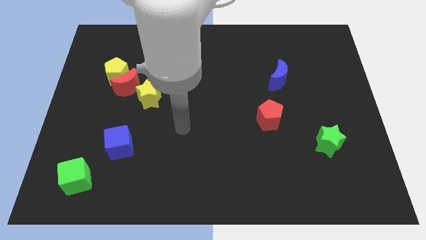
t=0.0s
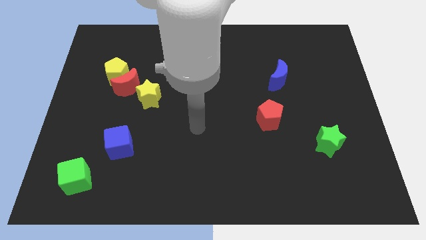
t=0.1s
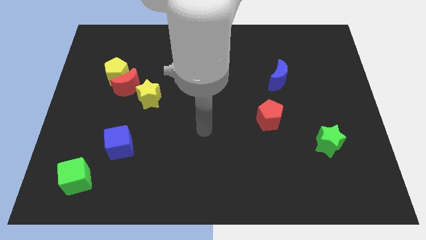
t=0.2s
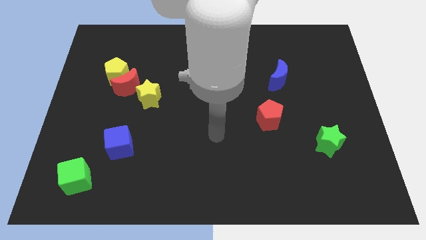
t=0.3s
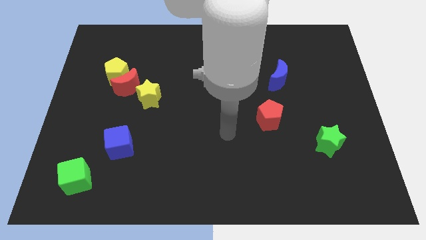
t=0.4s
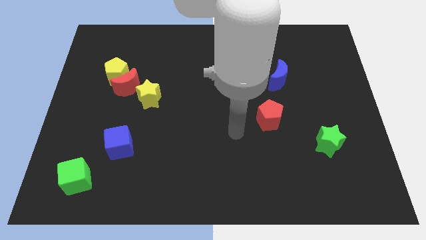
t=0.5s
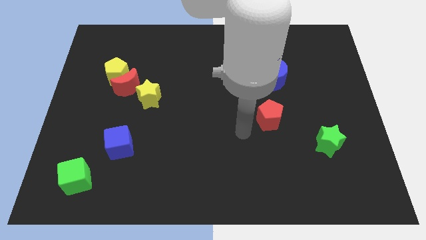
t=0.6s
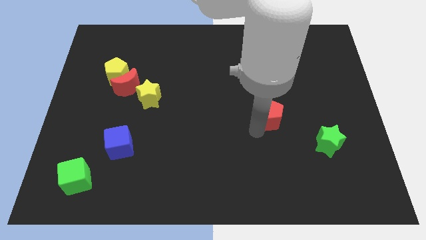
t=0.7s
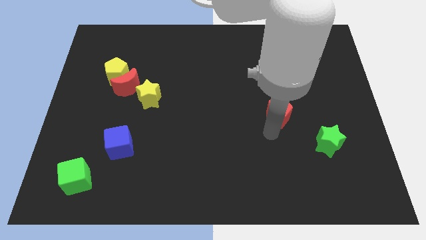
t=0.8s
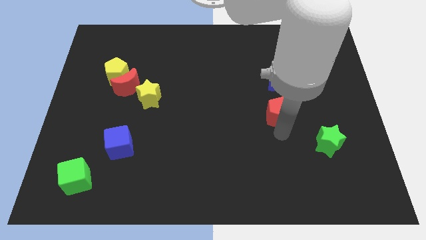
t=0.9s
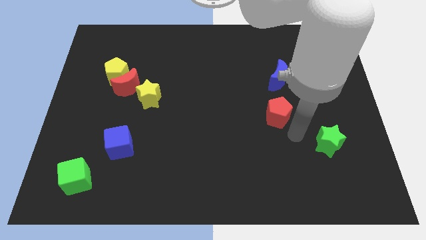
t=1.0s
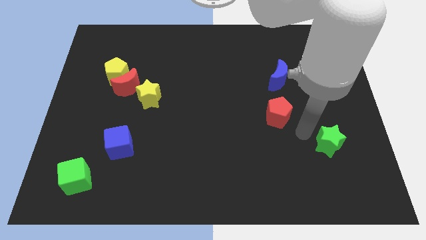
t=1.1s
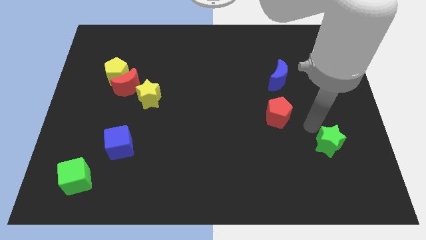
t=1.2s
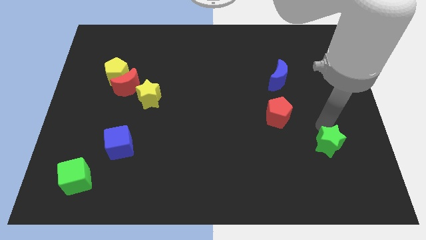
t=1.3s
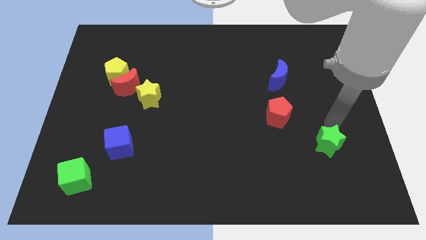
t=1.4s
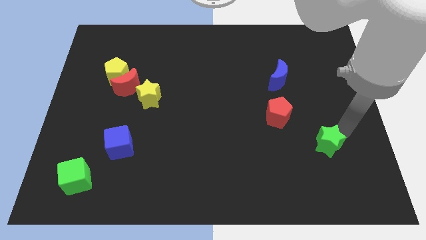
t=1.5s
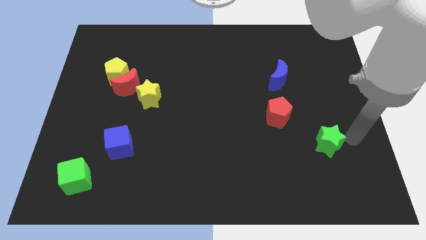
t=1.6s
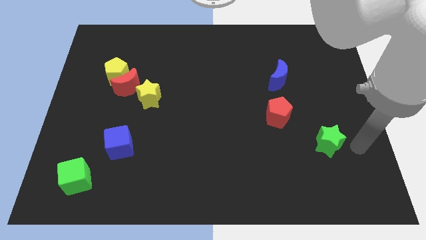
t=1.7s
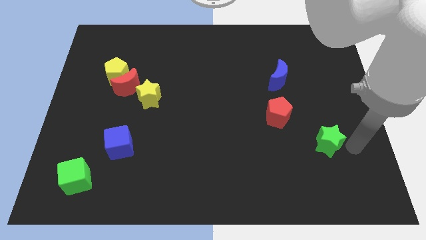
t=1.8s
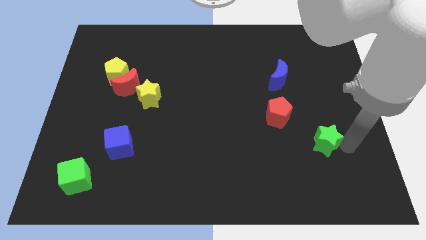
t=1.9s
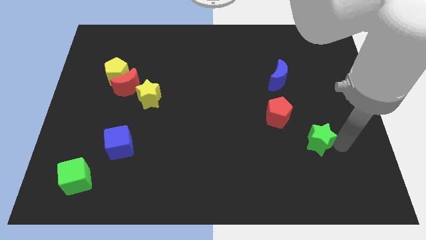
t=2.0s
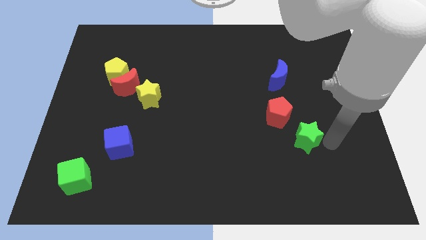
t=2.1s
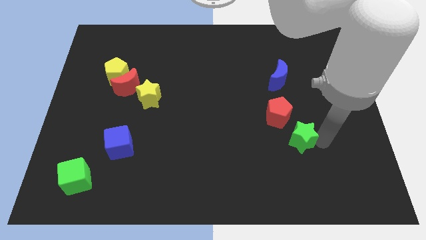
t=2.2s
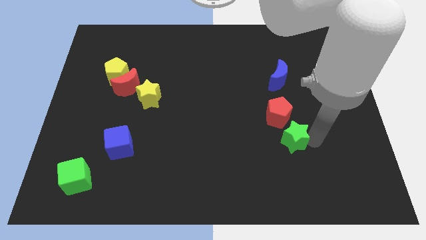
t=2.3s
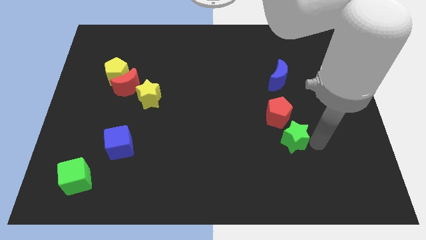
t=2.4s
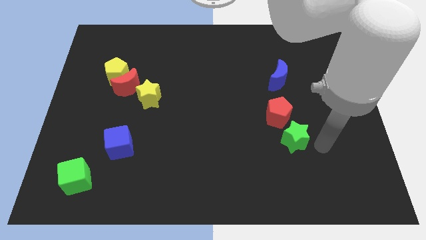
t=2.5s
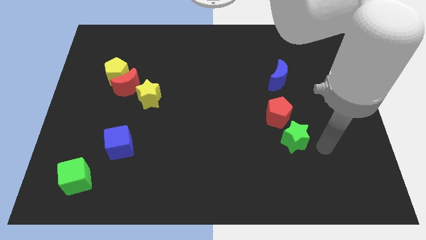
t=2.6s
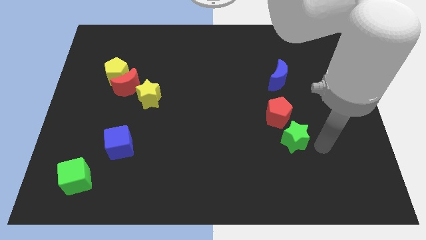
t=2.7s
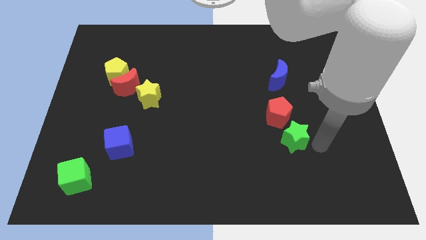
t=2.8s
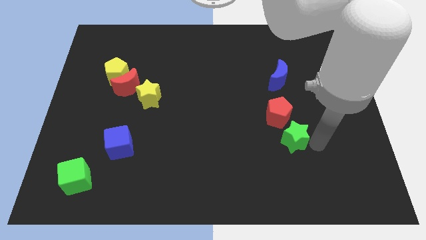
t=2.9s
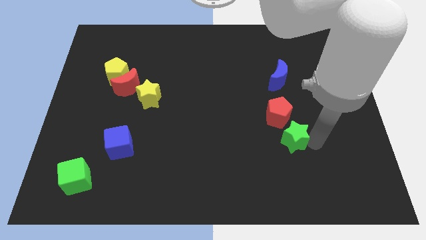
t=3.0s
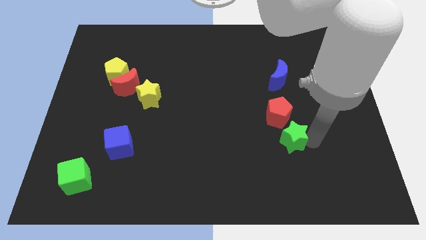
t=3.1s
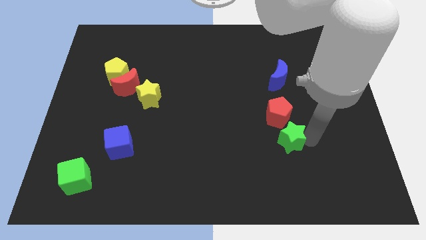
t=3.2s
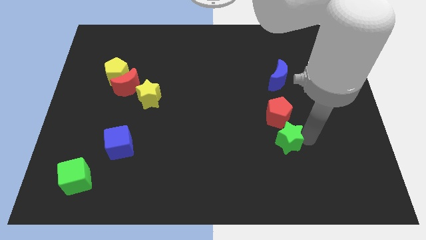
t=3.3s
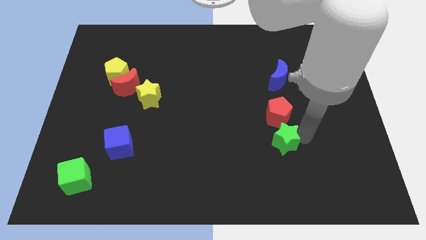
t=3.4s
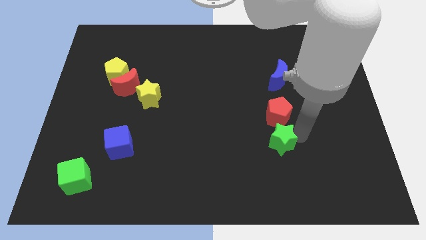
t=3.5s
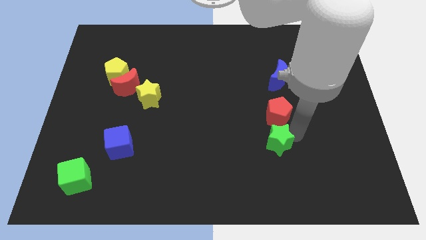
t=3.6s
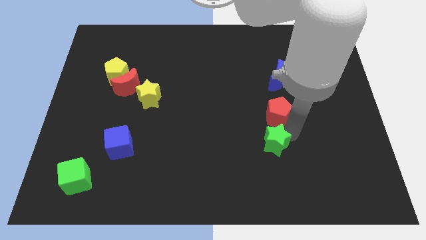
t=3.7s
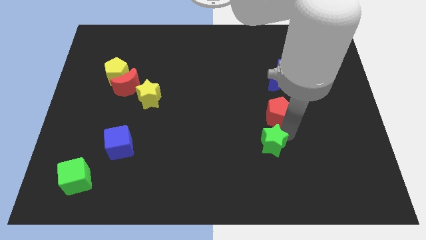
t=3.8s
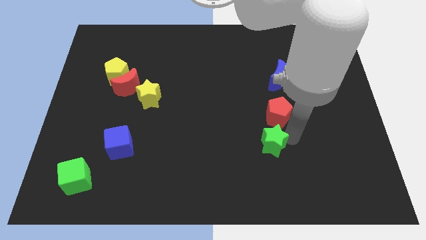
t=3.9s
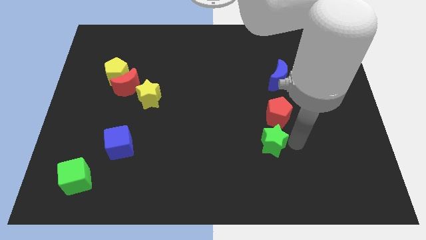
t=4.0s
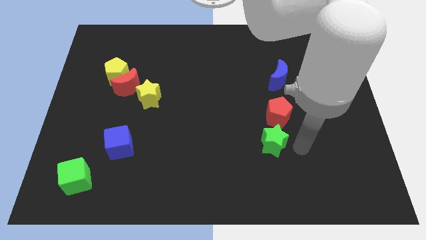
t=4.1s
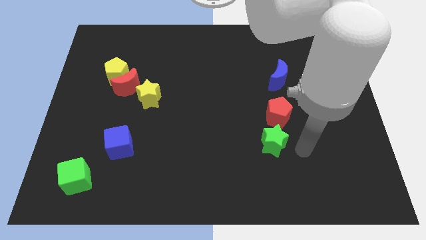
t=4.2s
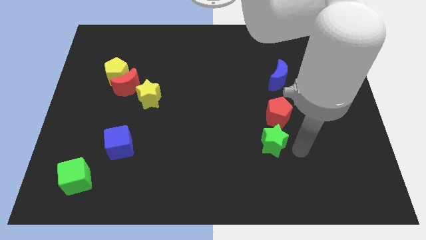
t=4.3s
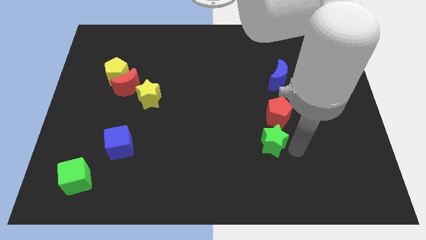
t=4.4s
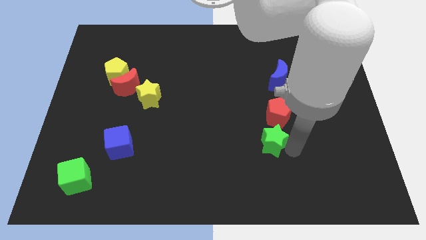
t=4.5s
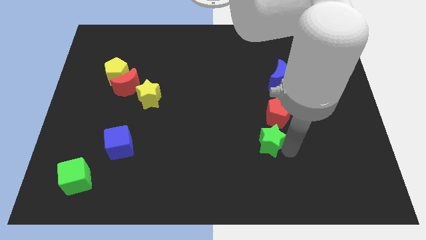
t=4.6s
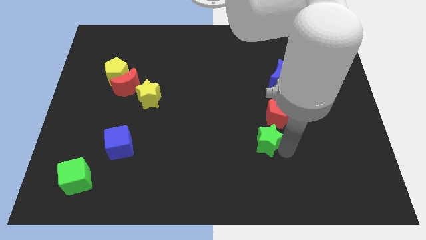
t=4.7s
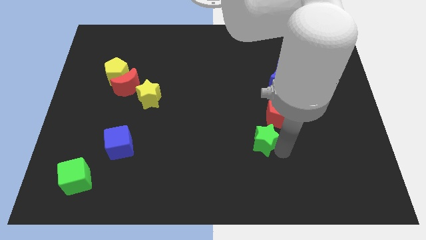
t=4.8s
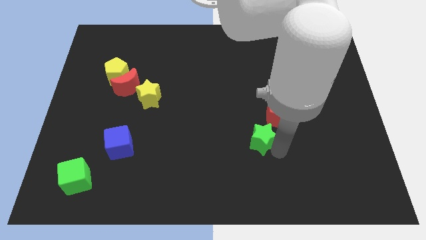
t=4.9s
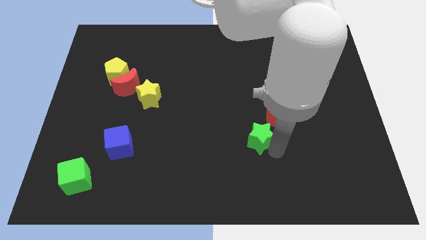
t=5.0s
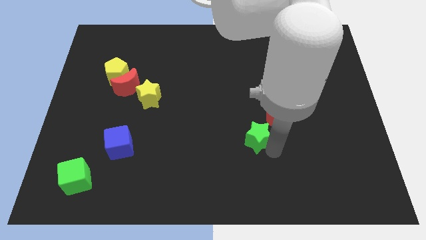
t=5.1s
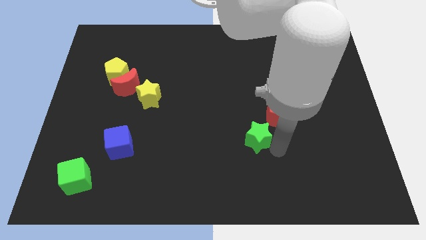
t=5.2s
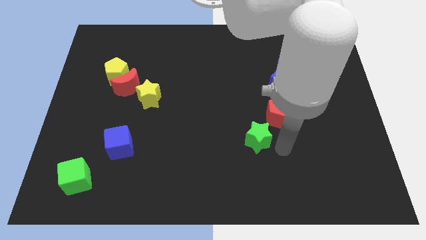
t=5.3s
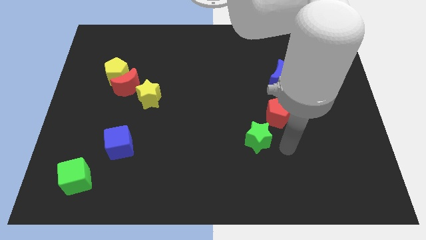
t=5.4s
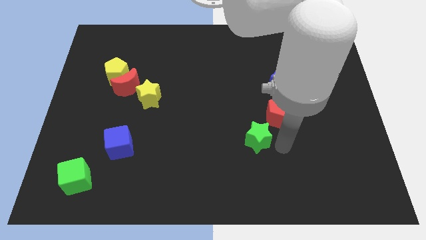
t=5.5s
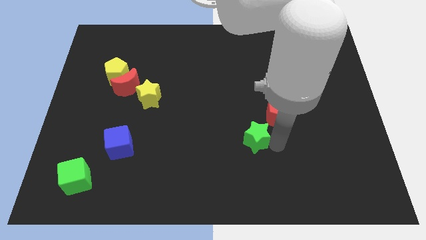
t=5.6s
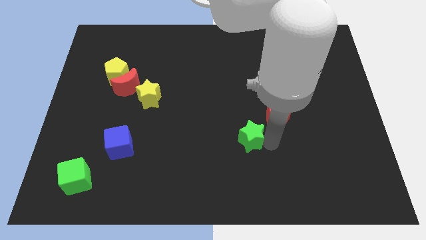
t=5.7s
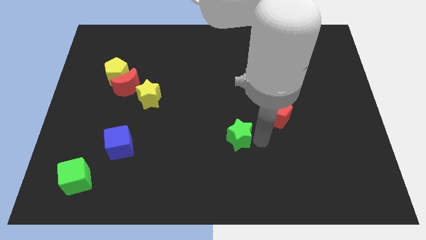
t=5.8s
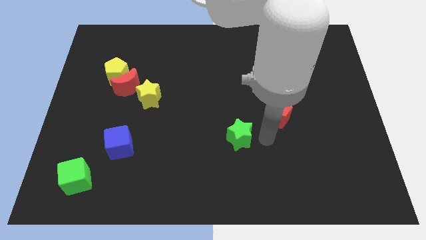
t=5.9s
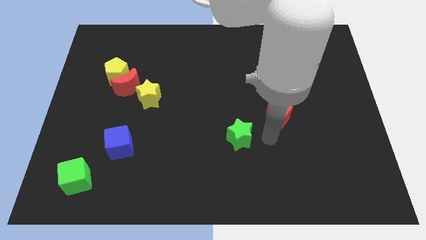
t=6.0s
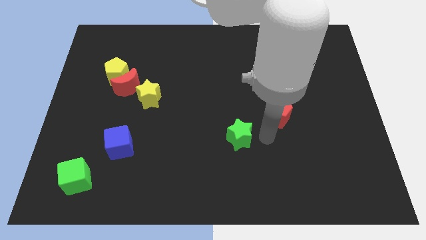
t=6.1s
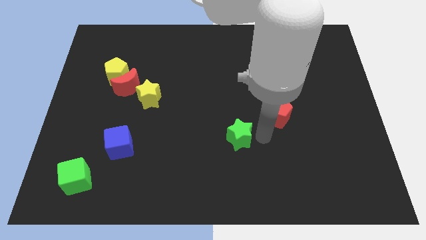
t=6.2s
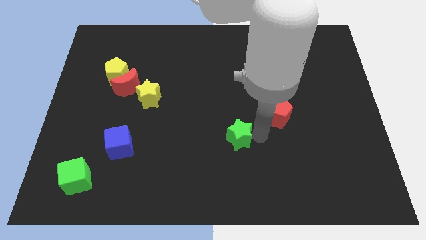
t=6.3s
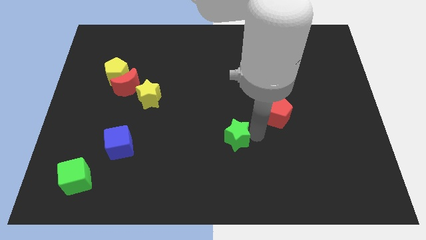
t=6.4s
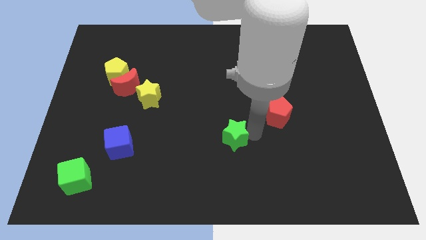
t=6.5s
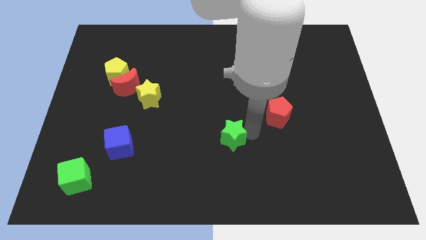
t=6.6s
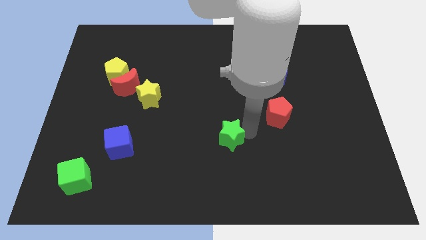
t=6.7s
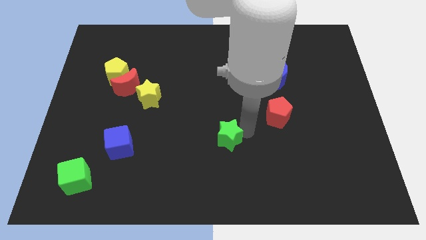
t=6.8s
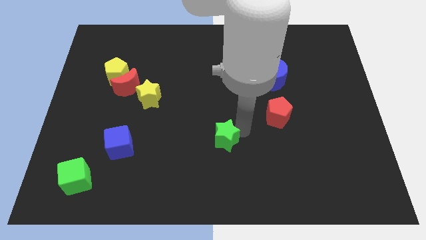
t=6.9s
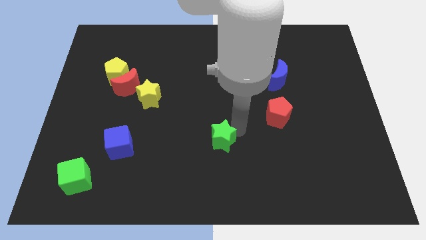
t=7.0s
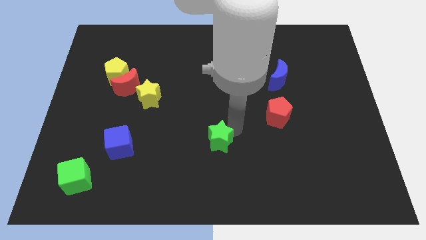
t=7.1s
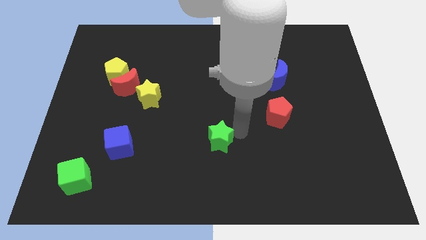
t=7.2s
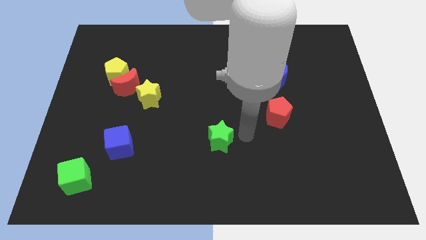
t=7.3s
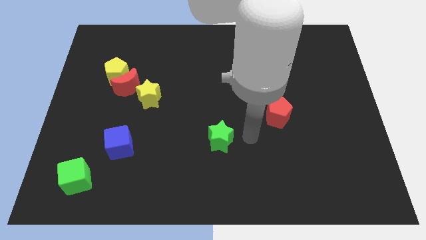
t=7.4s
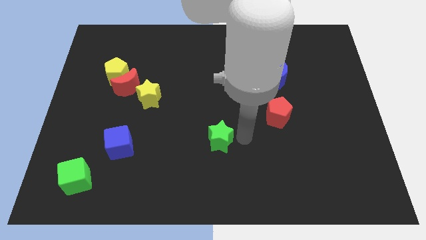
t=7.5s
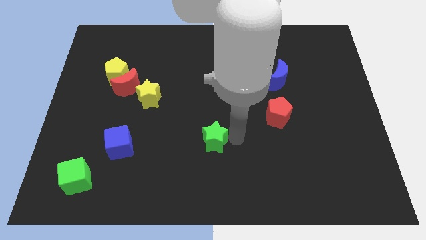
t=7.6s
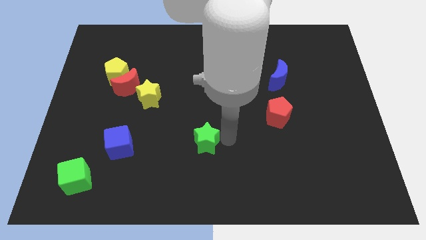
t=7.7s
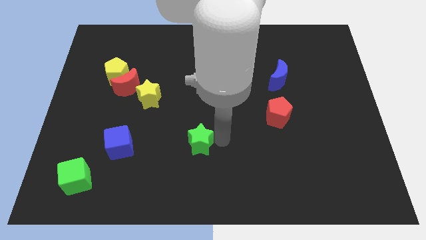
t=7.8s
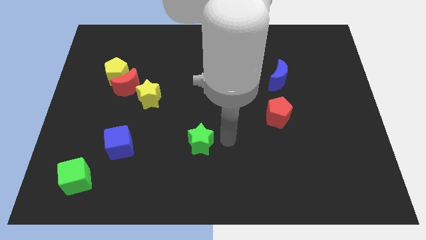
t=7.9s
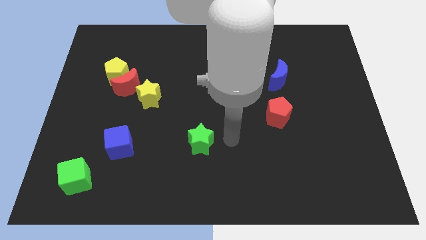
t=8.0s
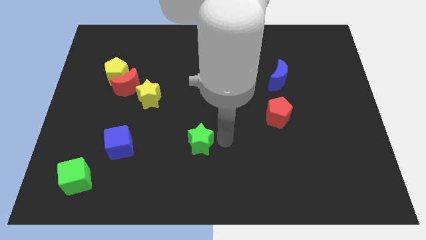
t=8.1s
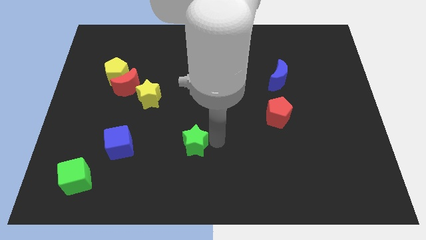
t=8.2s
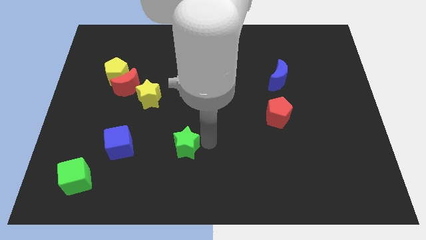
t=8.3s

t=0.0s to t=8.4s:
slide the green star to the right of the blue cube
